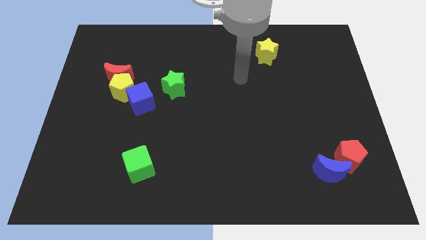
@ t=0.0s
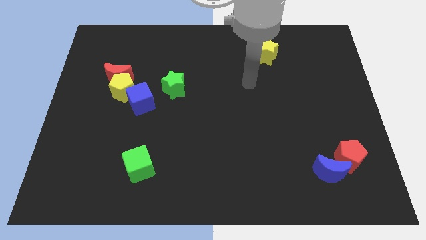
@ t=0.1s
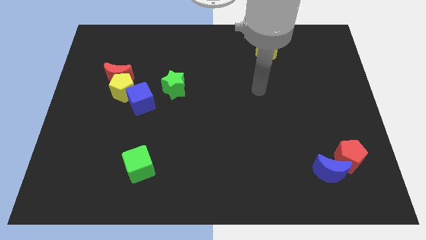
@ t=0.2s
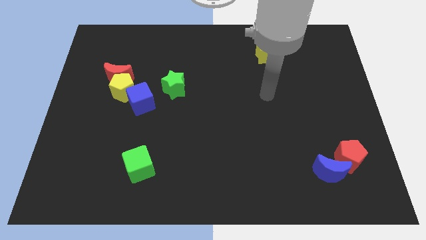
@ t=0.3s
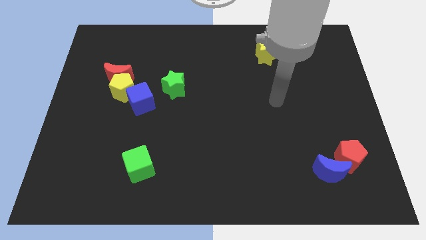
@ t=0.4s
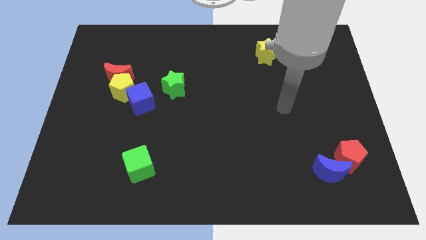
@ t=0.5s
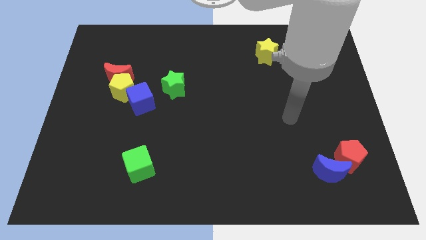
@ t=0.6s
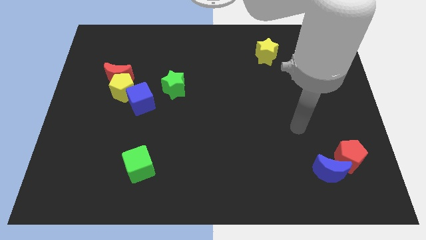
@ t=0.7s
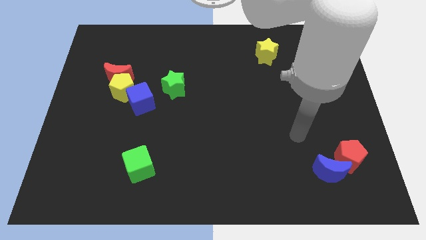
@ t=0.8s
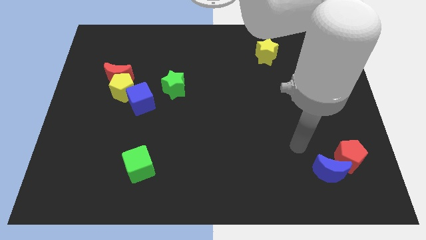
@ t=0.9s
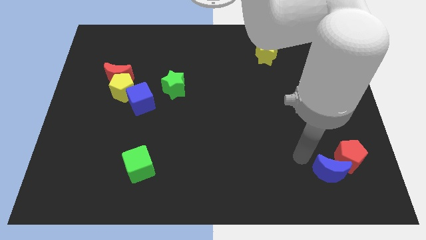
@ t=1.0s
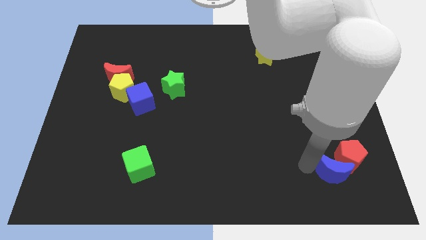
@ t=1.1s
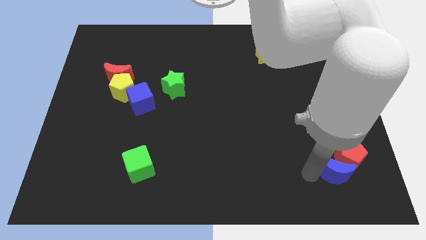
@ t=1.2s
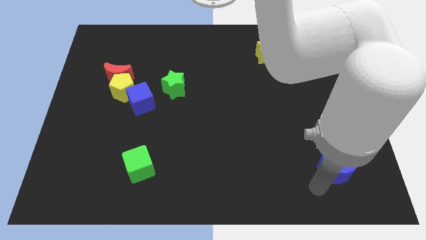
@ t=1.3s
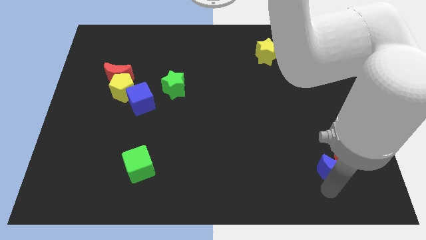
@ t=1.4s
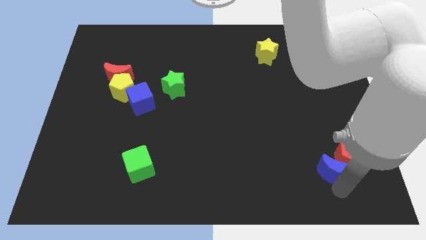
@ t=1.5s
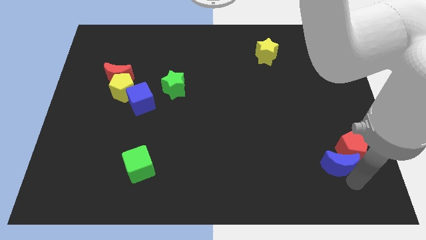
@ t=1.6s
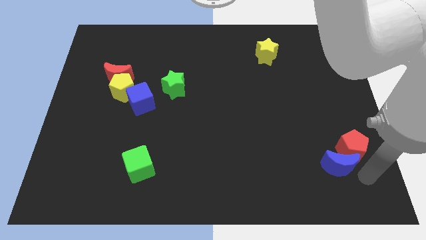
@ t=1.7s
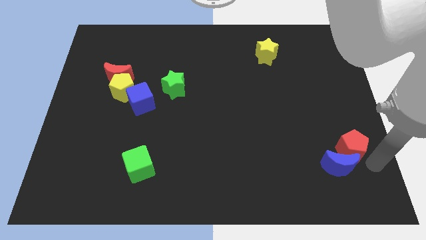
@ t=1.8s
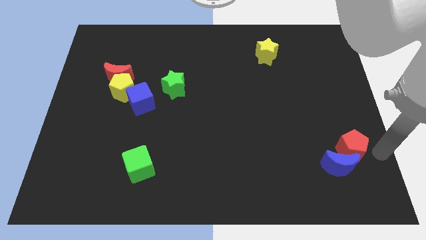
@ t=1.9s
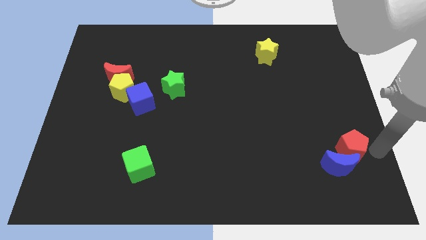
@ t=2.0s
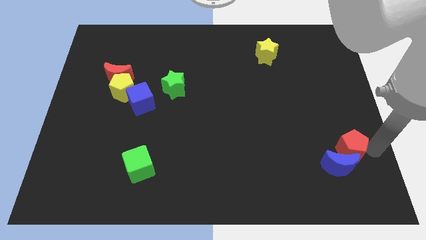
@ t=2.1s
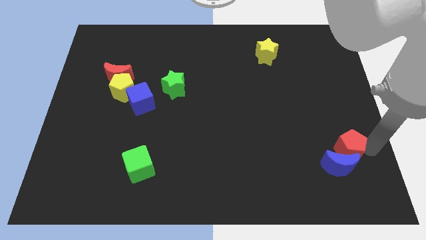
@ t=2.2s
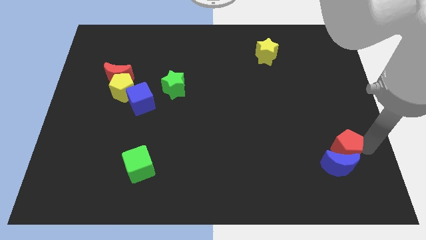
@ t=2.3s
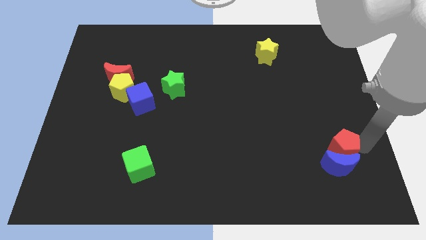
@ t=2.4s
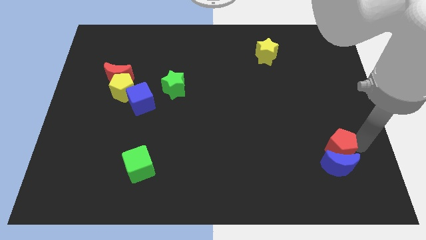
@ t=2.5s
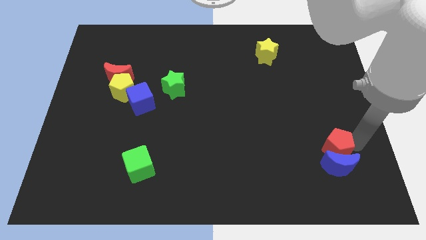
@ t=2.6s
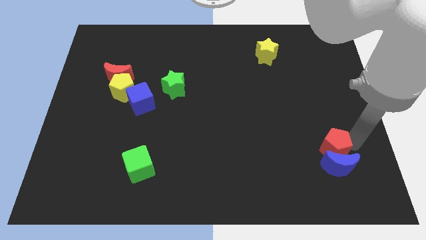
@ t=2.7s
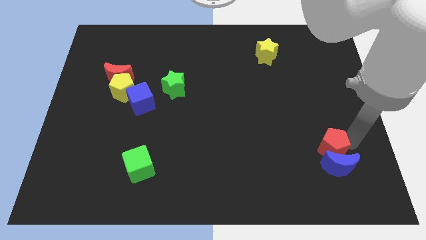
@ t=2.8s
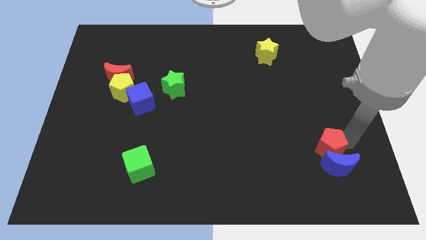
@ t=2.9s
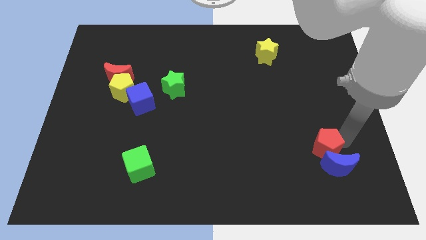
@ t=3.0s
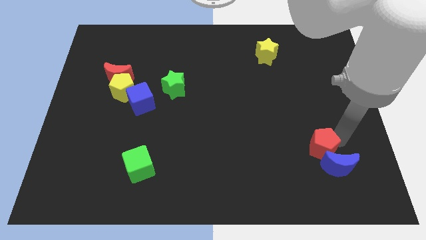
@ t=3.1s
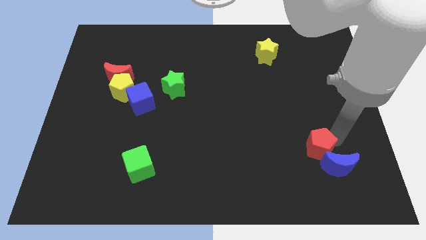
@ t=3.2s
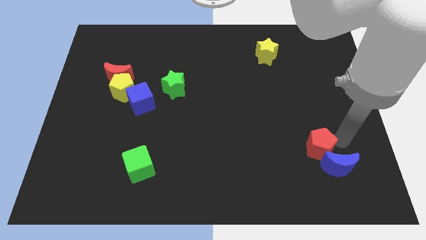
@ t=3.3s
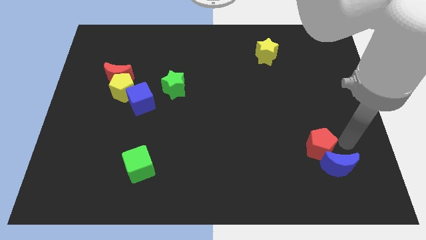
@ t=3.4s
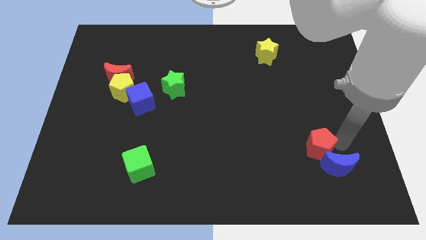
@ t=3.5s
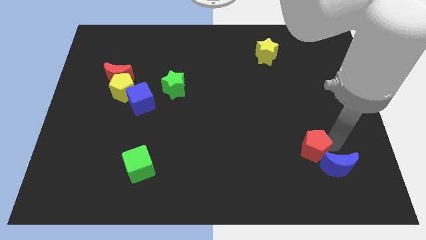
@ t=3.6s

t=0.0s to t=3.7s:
slightly push the red pentagon to the left

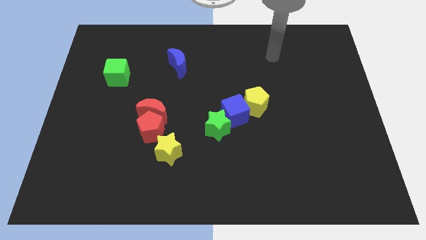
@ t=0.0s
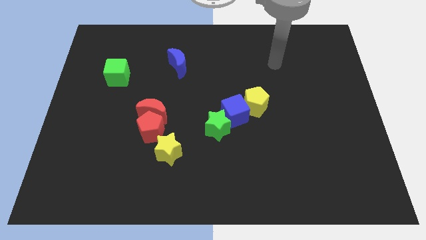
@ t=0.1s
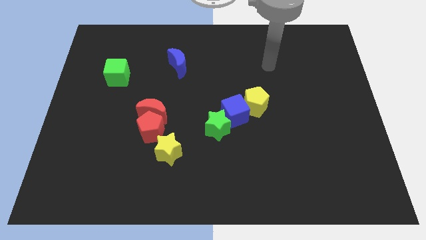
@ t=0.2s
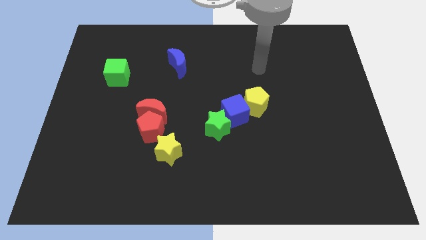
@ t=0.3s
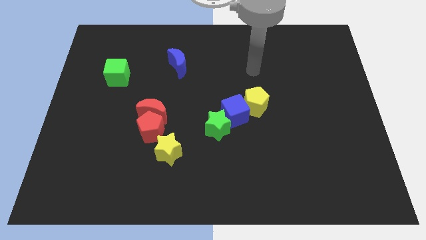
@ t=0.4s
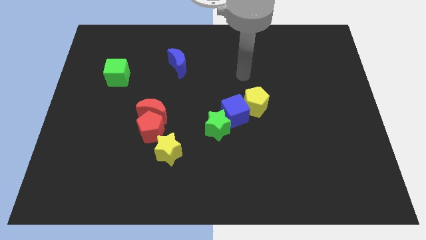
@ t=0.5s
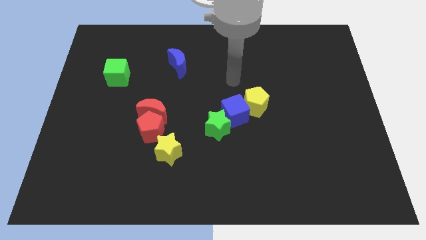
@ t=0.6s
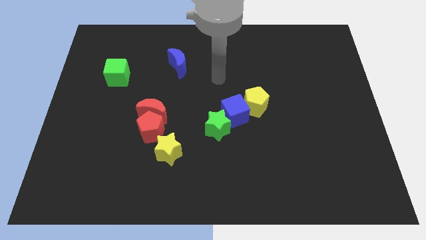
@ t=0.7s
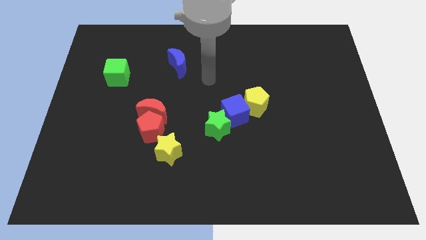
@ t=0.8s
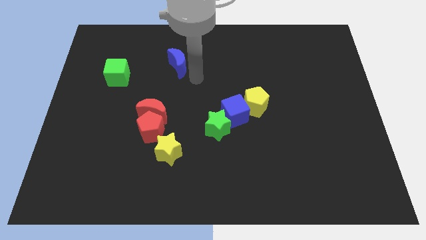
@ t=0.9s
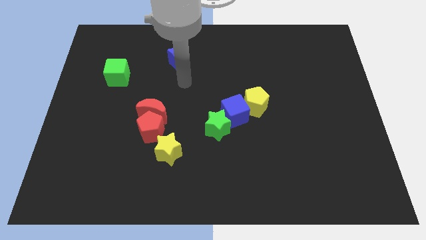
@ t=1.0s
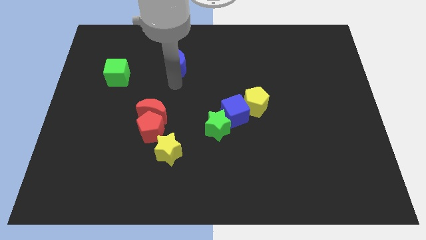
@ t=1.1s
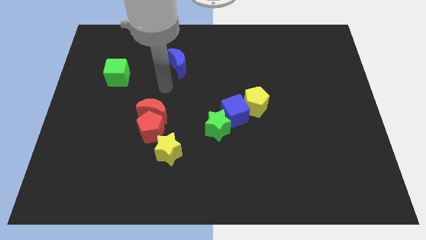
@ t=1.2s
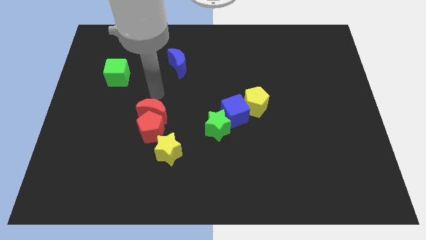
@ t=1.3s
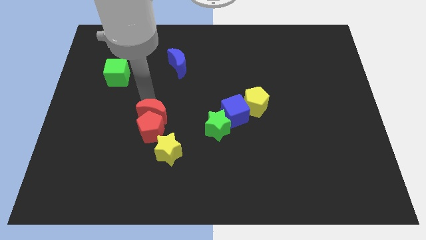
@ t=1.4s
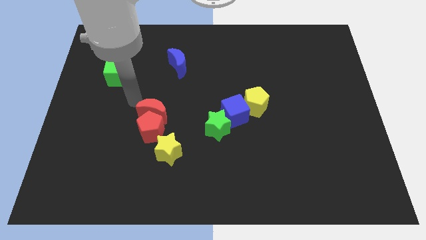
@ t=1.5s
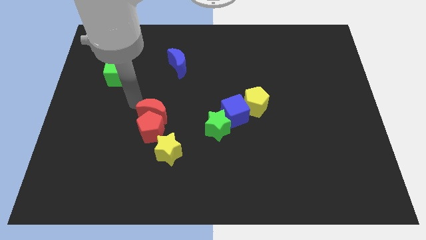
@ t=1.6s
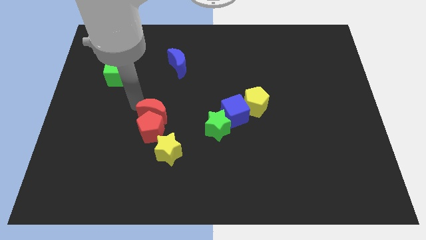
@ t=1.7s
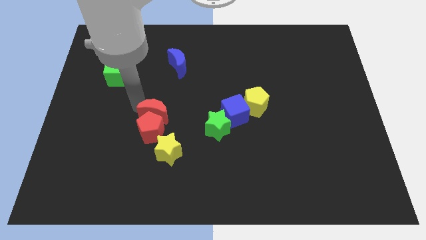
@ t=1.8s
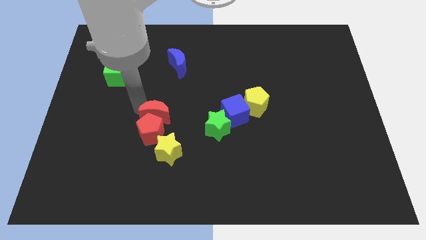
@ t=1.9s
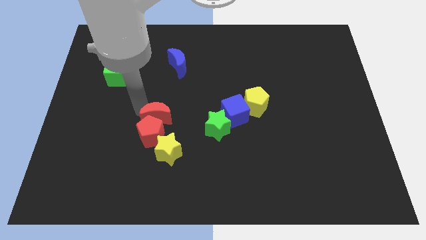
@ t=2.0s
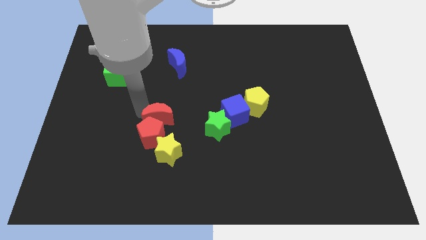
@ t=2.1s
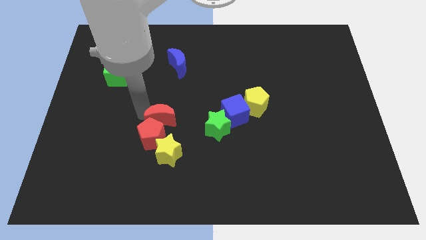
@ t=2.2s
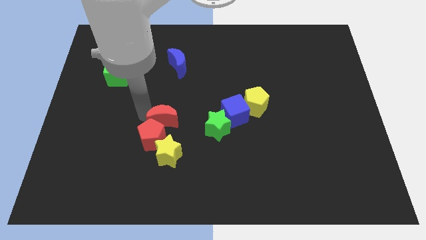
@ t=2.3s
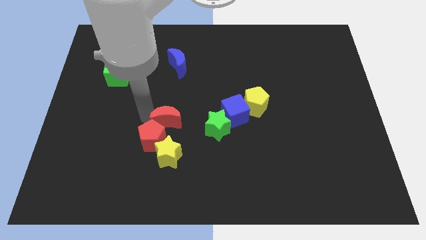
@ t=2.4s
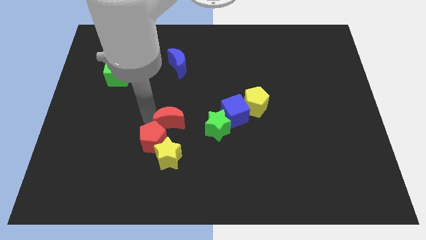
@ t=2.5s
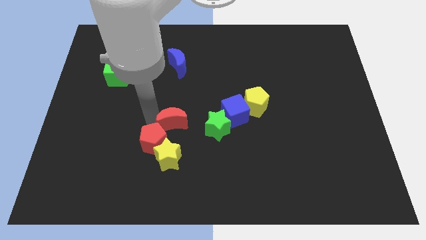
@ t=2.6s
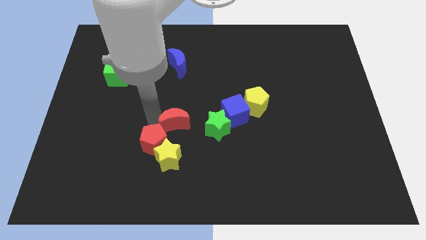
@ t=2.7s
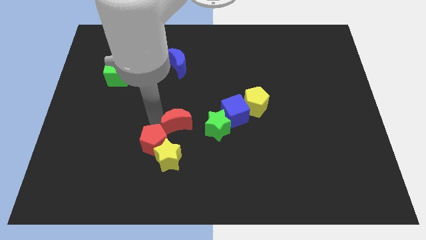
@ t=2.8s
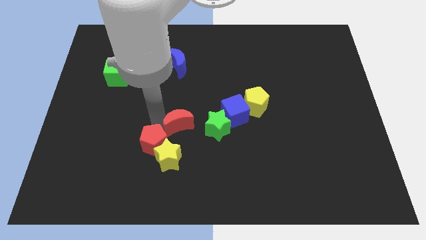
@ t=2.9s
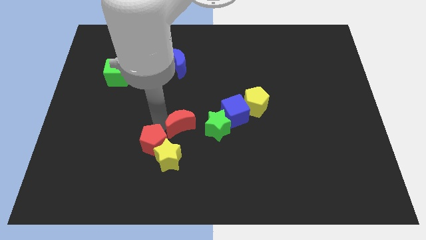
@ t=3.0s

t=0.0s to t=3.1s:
slightly move the red moon diagonally downwards and right

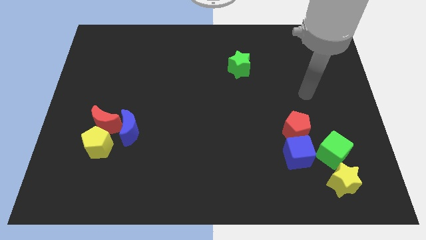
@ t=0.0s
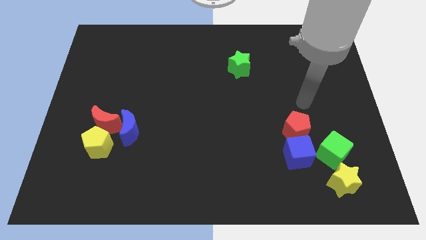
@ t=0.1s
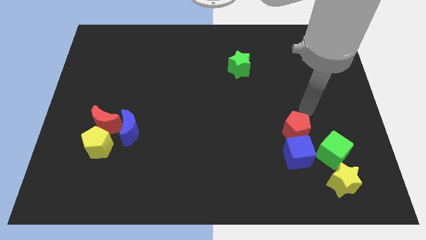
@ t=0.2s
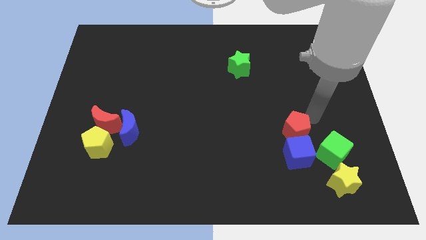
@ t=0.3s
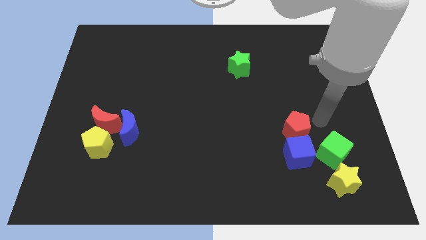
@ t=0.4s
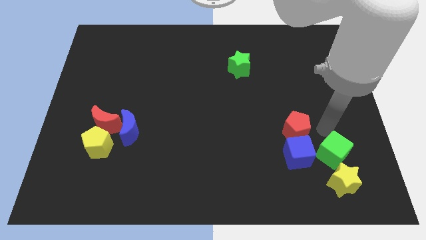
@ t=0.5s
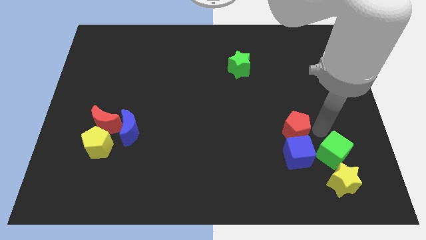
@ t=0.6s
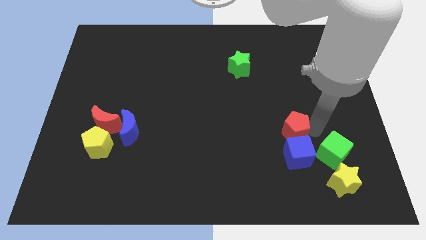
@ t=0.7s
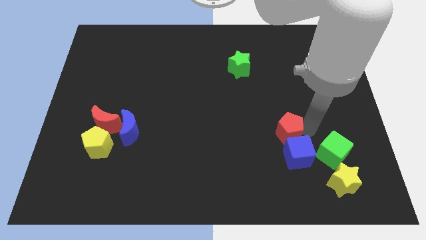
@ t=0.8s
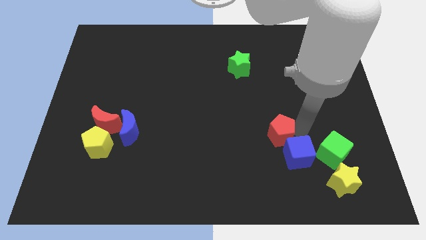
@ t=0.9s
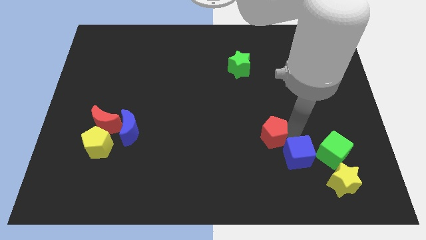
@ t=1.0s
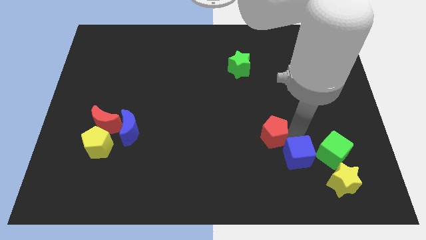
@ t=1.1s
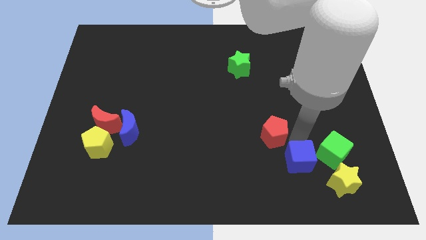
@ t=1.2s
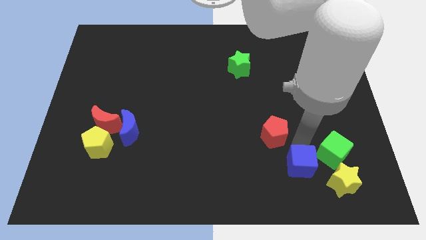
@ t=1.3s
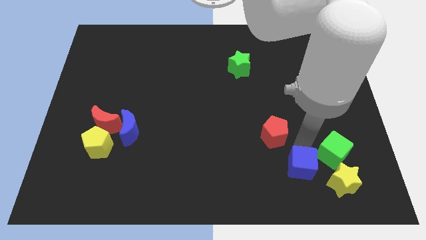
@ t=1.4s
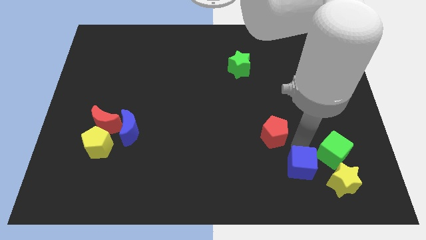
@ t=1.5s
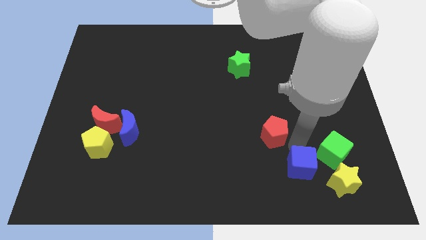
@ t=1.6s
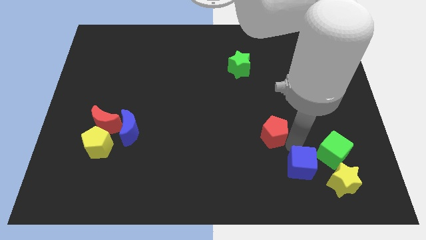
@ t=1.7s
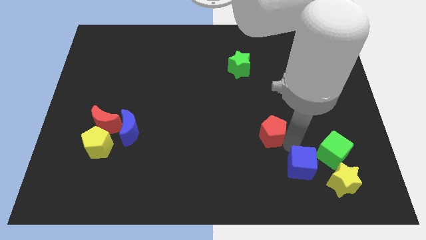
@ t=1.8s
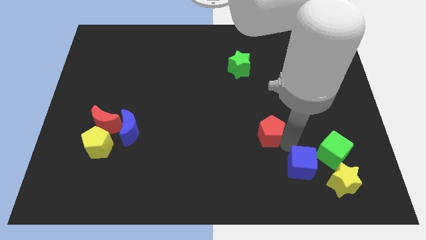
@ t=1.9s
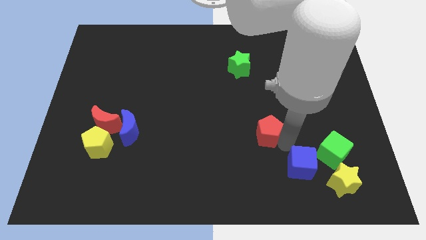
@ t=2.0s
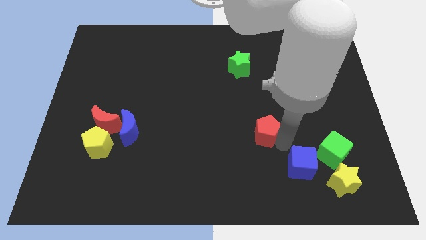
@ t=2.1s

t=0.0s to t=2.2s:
push the red pentagon a bit left
